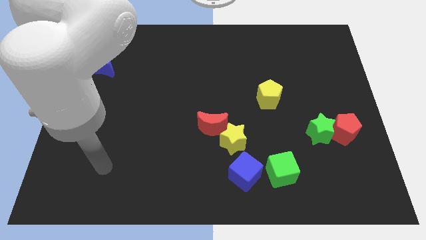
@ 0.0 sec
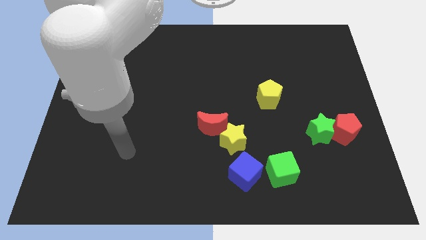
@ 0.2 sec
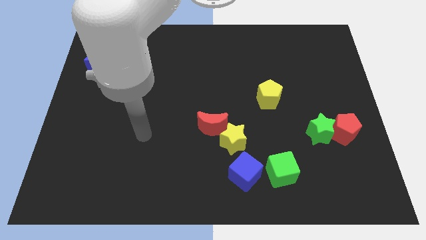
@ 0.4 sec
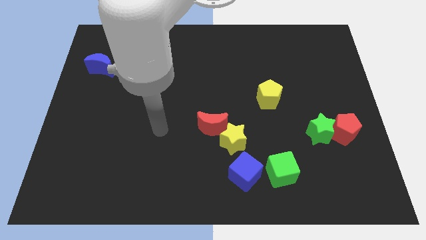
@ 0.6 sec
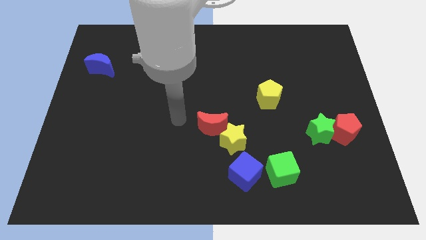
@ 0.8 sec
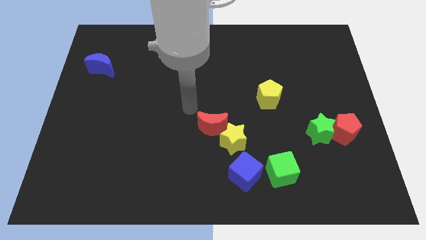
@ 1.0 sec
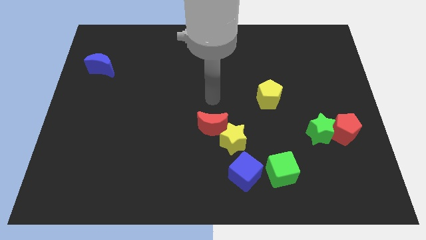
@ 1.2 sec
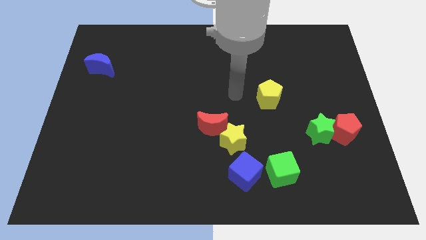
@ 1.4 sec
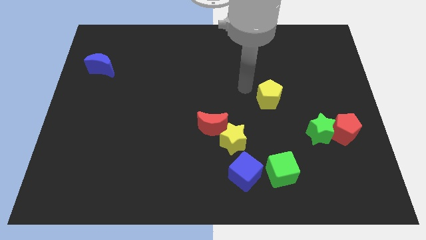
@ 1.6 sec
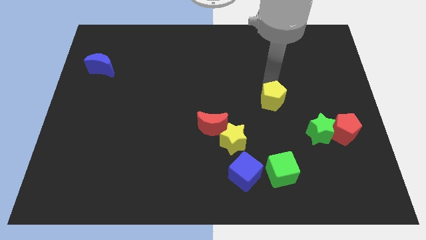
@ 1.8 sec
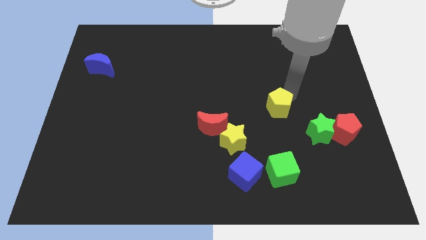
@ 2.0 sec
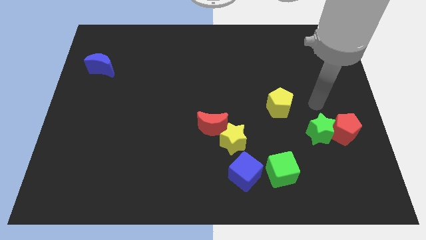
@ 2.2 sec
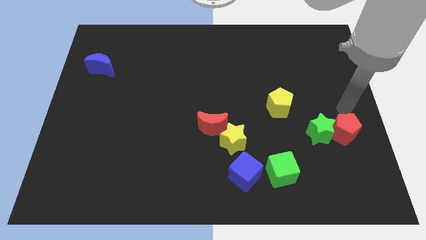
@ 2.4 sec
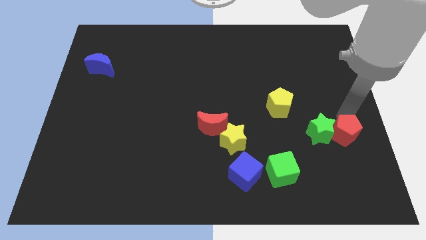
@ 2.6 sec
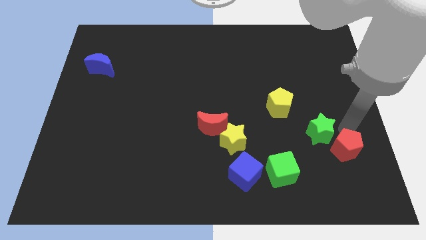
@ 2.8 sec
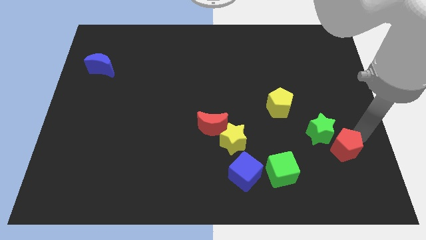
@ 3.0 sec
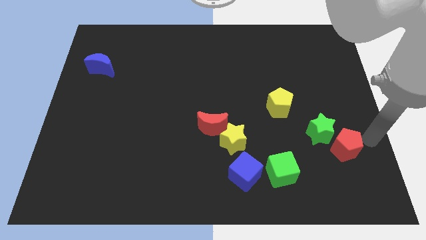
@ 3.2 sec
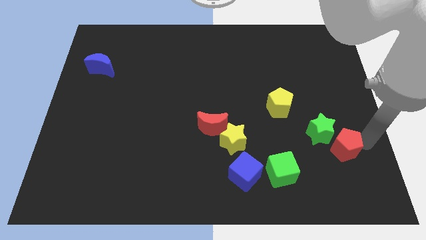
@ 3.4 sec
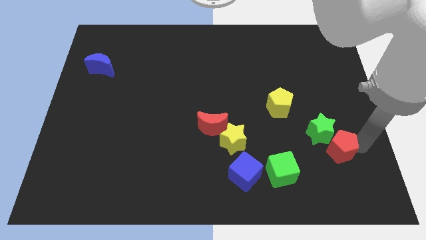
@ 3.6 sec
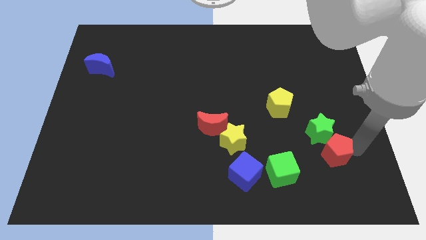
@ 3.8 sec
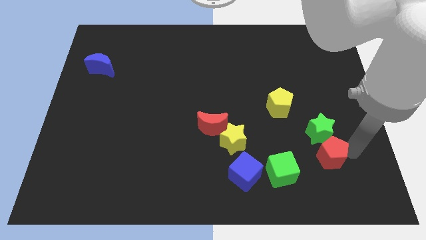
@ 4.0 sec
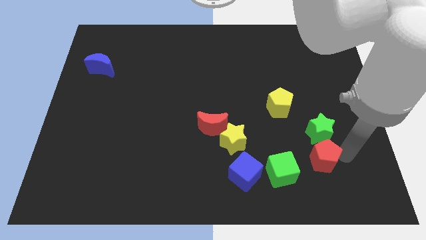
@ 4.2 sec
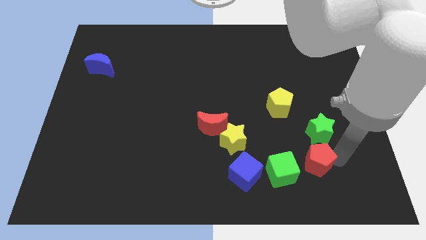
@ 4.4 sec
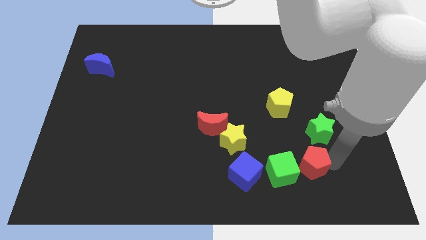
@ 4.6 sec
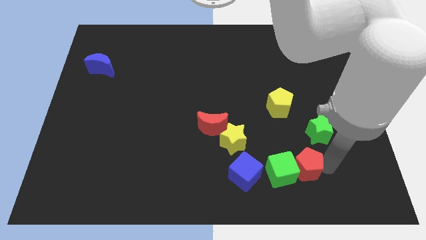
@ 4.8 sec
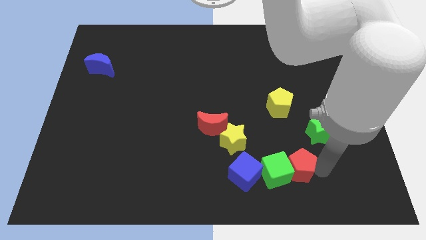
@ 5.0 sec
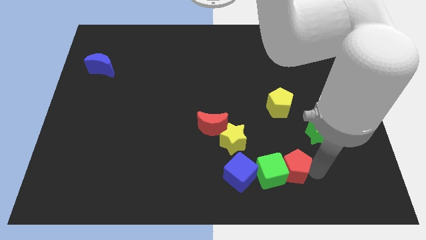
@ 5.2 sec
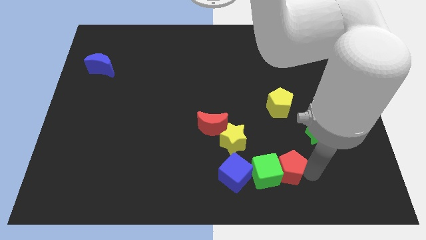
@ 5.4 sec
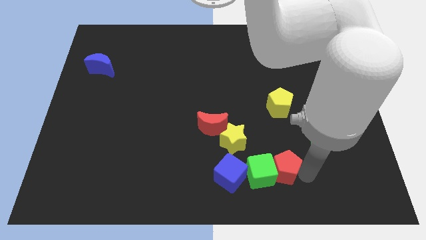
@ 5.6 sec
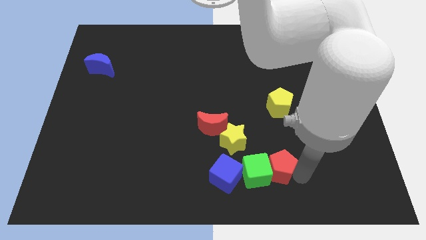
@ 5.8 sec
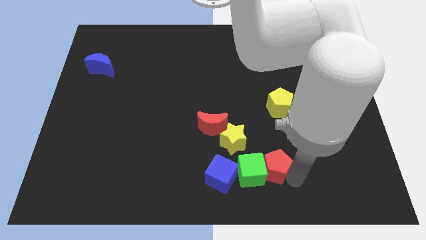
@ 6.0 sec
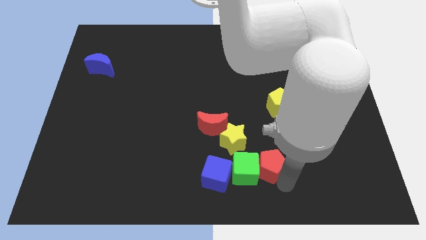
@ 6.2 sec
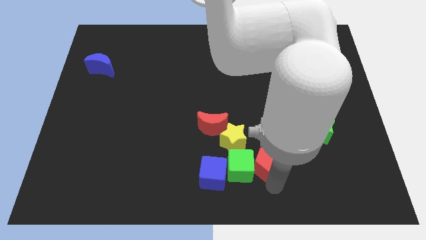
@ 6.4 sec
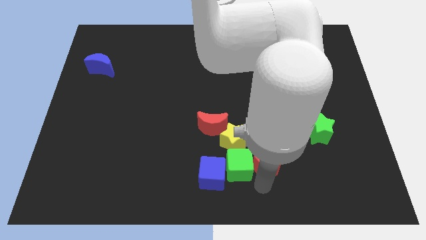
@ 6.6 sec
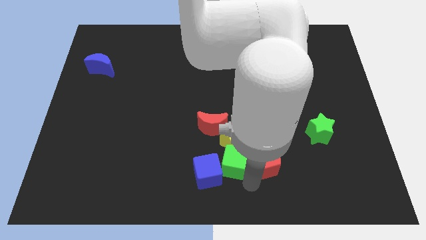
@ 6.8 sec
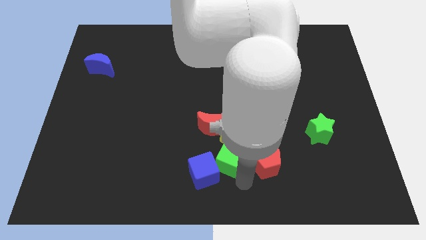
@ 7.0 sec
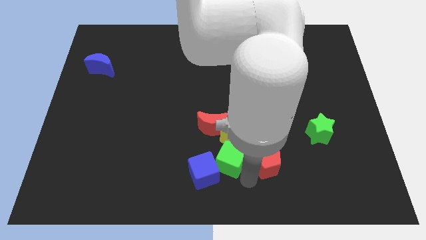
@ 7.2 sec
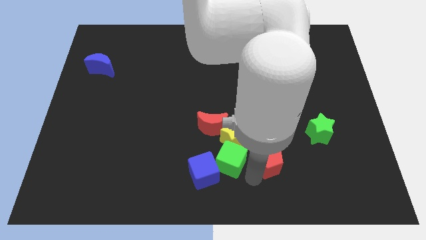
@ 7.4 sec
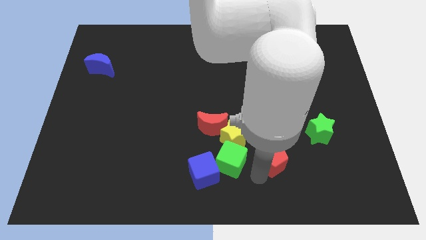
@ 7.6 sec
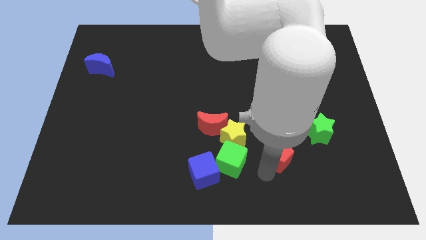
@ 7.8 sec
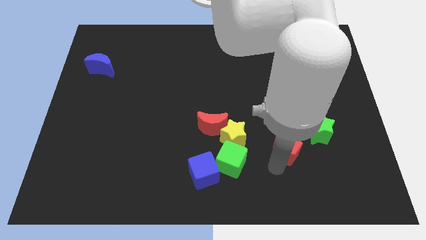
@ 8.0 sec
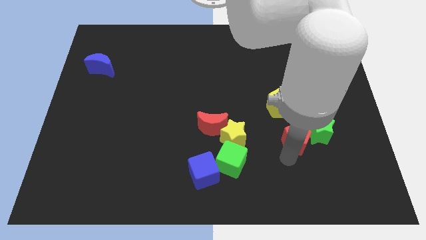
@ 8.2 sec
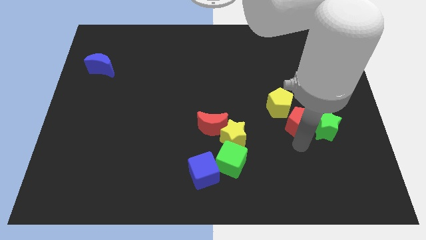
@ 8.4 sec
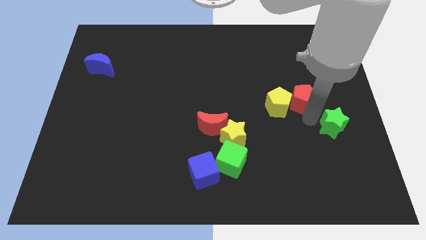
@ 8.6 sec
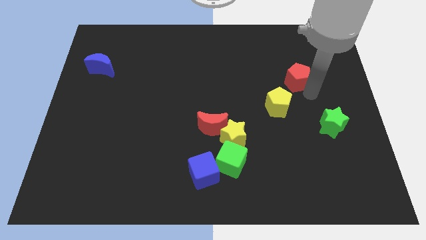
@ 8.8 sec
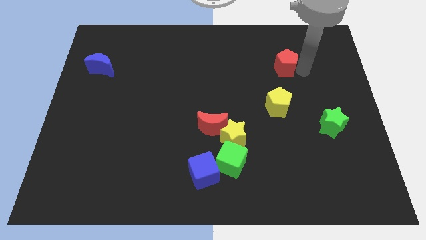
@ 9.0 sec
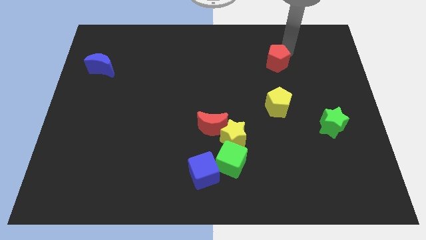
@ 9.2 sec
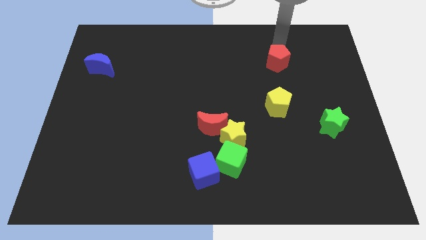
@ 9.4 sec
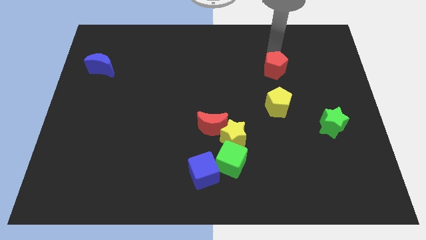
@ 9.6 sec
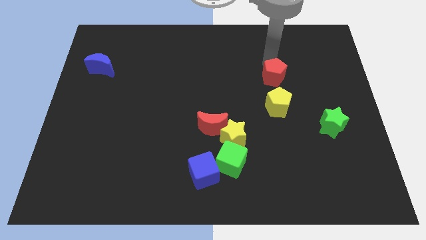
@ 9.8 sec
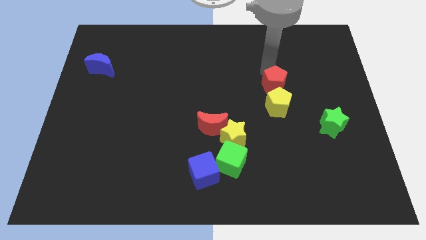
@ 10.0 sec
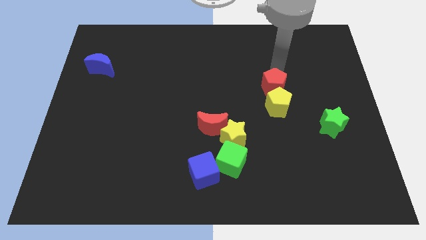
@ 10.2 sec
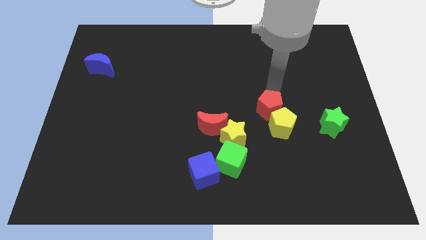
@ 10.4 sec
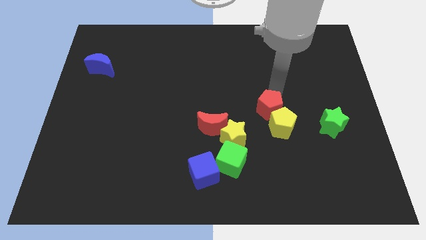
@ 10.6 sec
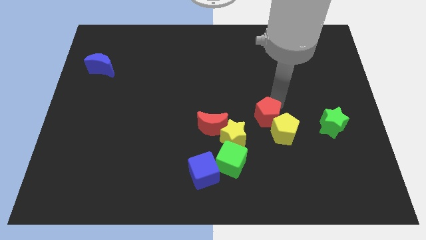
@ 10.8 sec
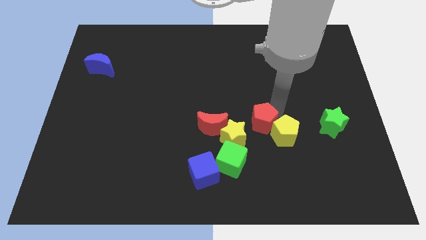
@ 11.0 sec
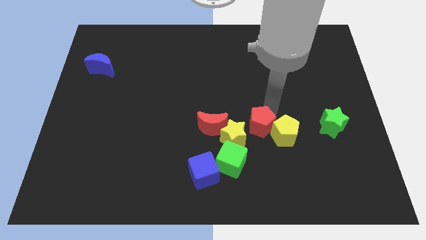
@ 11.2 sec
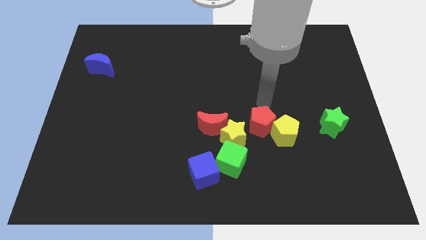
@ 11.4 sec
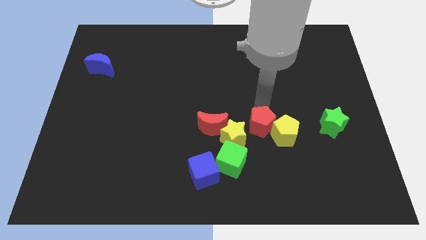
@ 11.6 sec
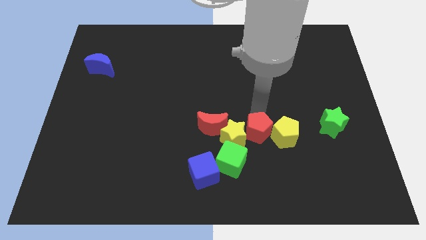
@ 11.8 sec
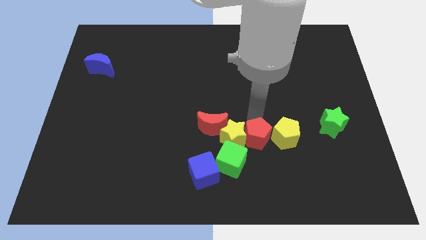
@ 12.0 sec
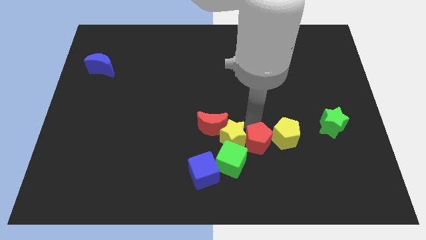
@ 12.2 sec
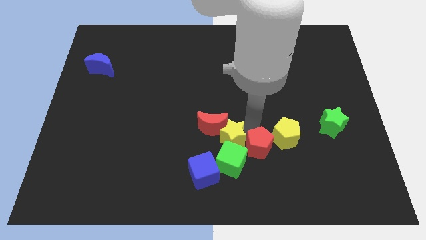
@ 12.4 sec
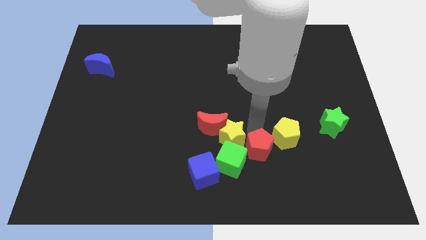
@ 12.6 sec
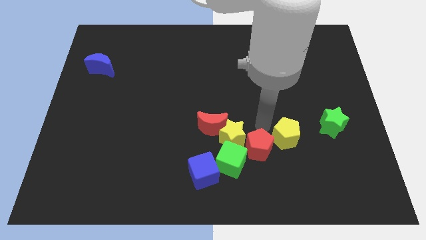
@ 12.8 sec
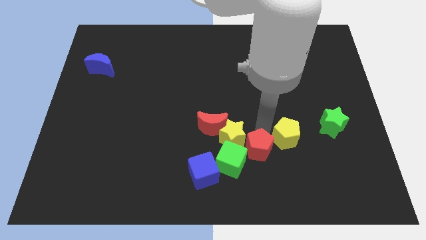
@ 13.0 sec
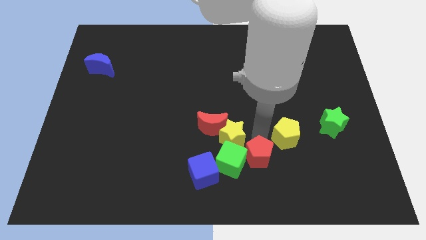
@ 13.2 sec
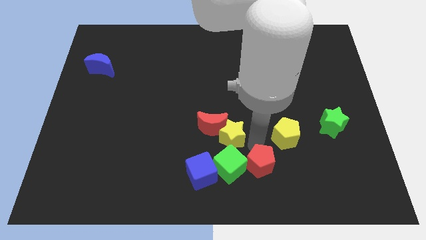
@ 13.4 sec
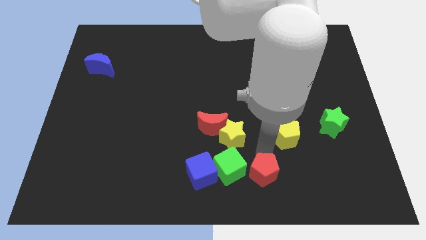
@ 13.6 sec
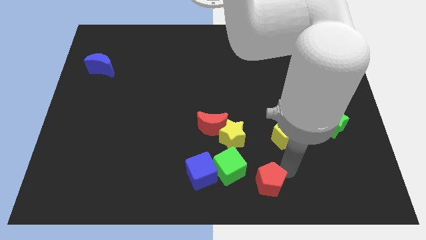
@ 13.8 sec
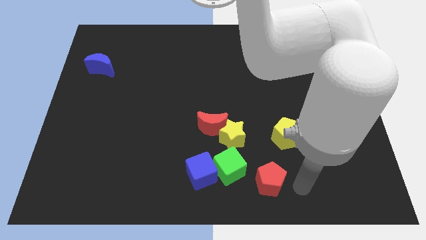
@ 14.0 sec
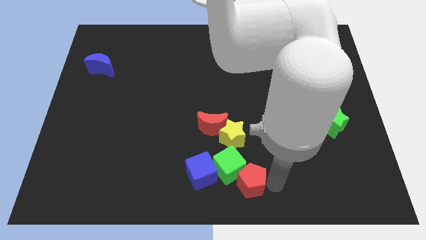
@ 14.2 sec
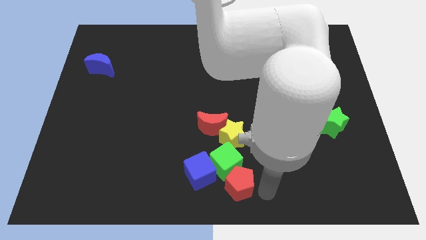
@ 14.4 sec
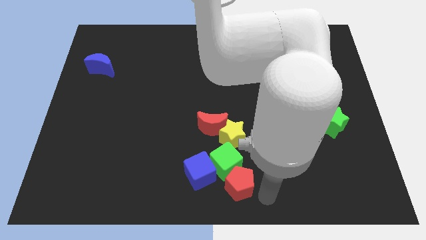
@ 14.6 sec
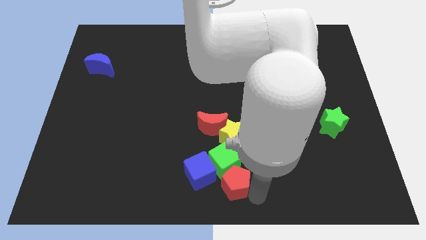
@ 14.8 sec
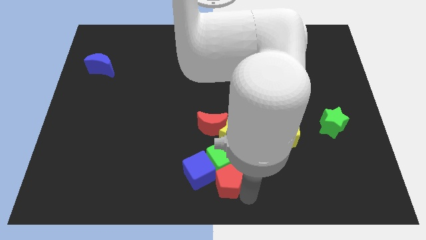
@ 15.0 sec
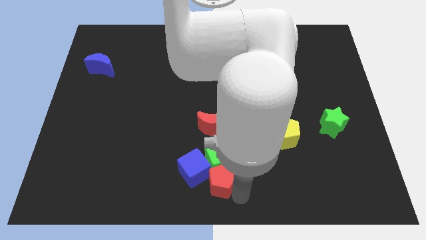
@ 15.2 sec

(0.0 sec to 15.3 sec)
move the red pentagon to the blue cube
